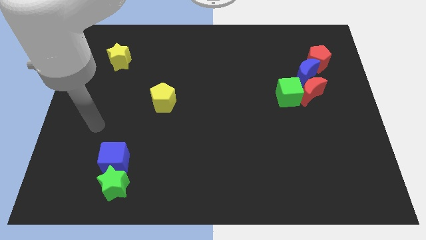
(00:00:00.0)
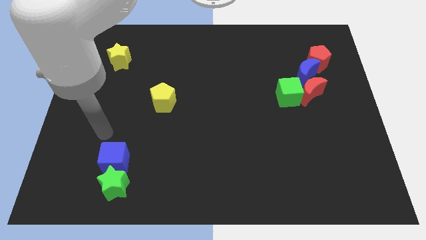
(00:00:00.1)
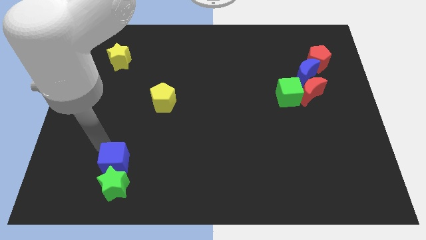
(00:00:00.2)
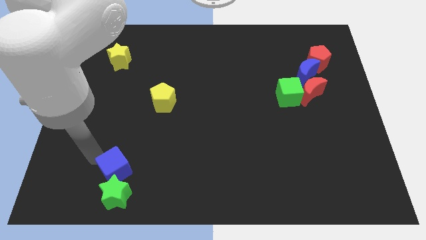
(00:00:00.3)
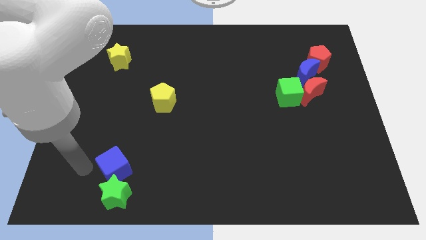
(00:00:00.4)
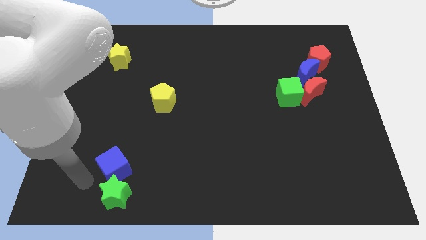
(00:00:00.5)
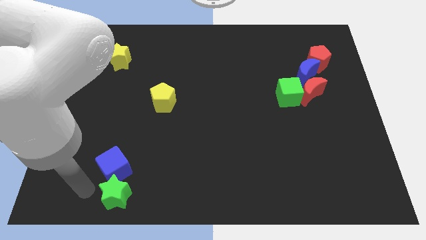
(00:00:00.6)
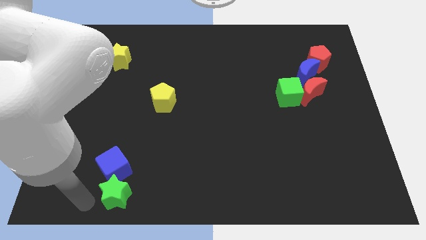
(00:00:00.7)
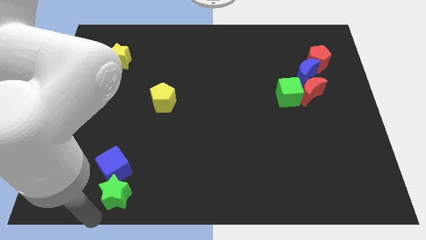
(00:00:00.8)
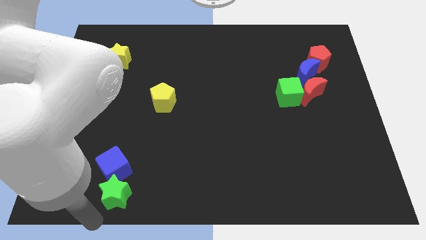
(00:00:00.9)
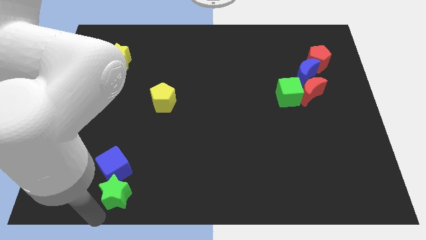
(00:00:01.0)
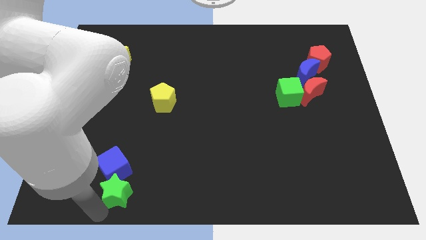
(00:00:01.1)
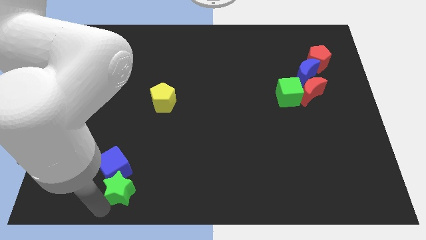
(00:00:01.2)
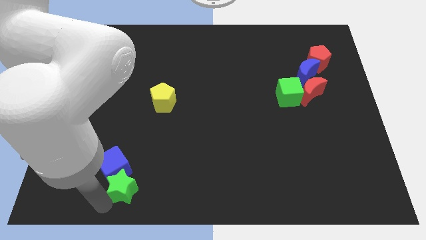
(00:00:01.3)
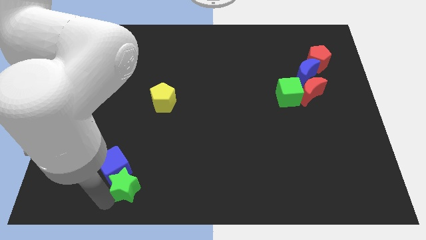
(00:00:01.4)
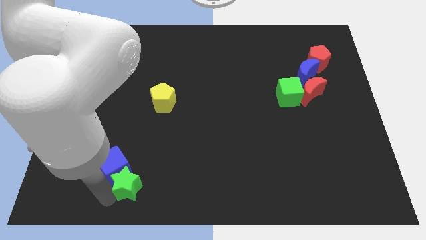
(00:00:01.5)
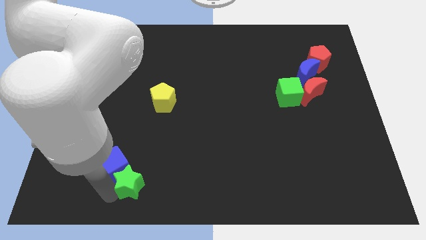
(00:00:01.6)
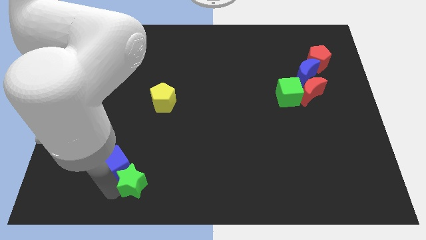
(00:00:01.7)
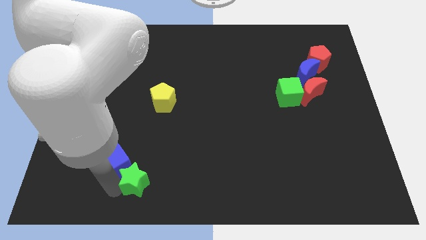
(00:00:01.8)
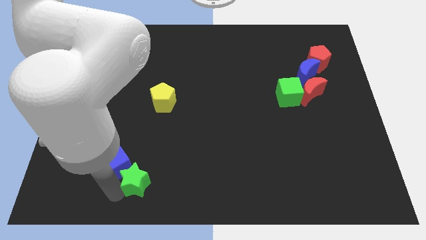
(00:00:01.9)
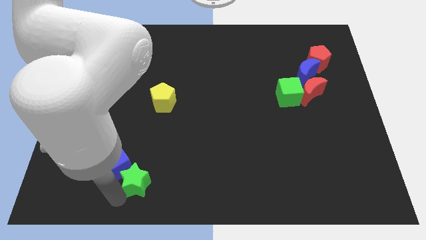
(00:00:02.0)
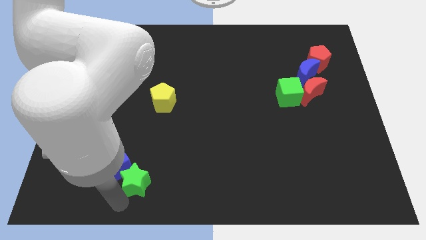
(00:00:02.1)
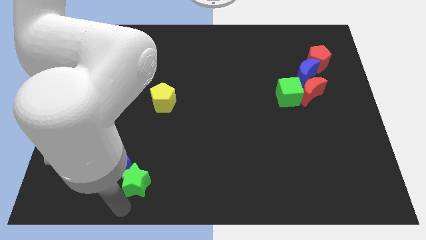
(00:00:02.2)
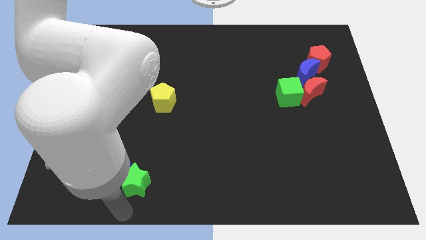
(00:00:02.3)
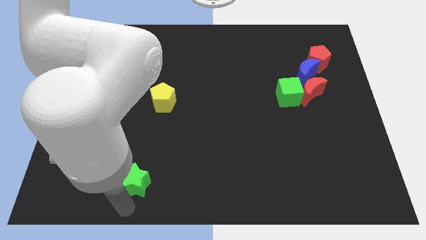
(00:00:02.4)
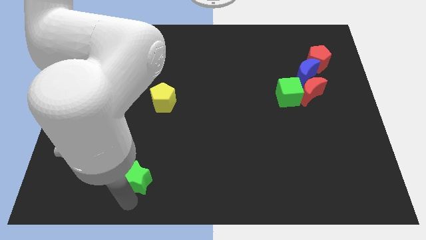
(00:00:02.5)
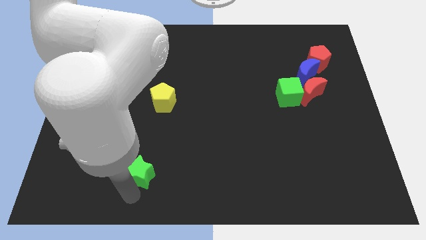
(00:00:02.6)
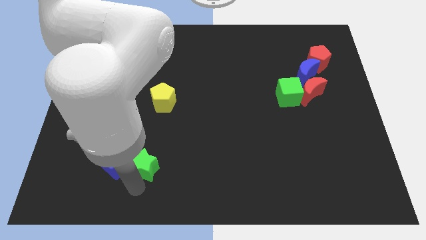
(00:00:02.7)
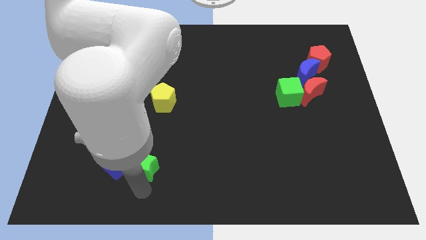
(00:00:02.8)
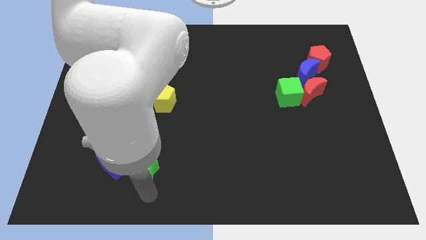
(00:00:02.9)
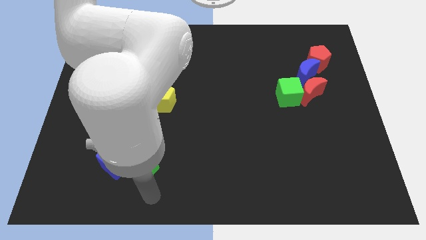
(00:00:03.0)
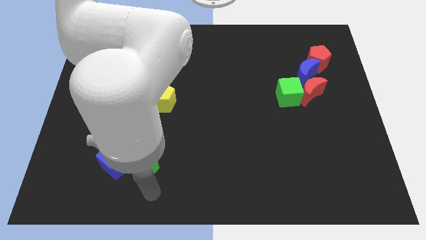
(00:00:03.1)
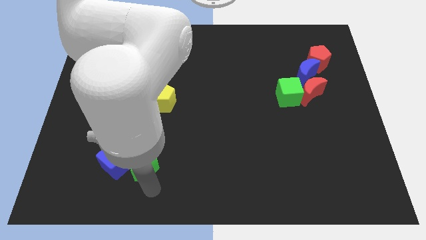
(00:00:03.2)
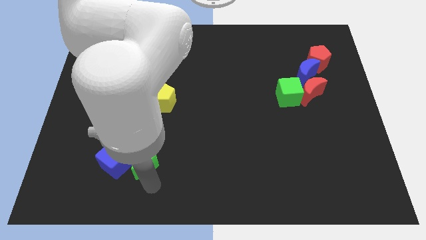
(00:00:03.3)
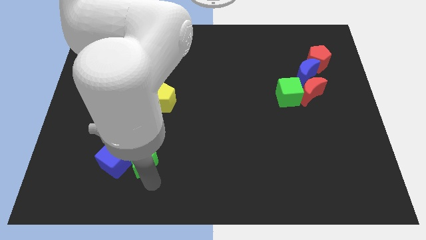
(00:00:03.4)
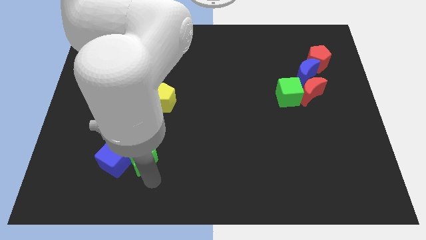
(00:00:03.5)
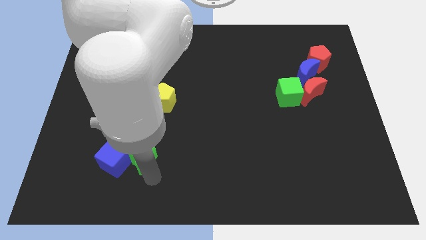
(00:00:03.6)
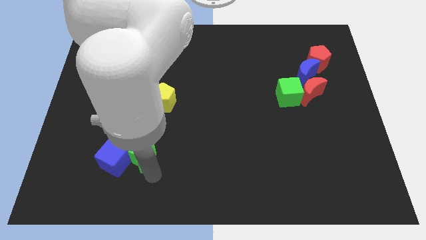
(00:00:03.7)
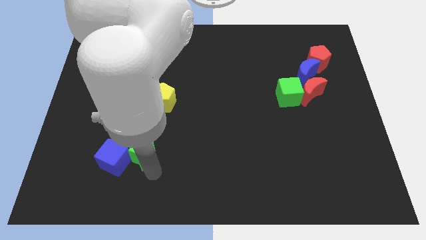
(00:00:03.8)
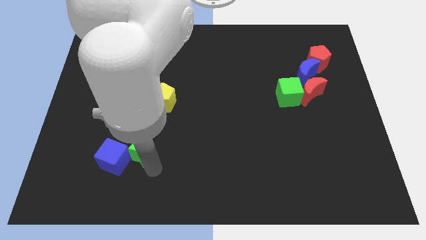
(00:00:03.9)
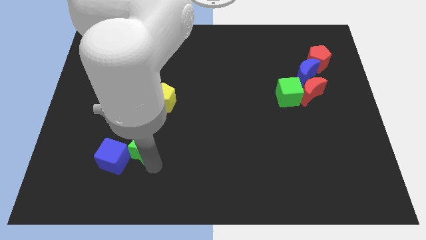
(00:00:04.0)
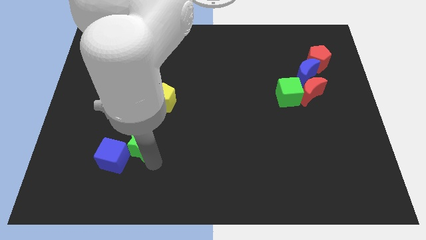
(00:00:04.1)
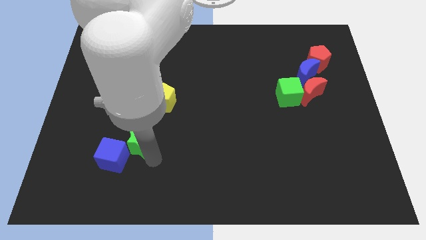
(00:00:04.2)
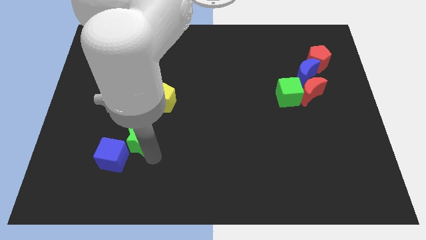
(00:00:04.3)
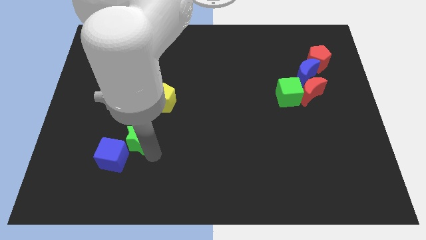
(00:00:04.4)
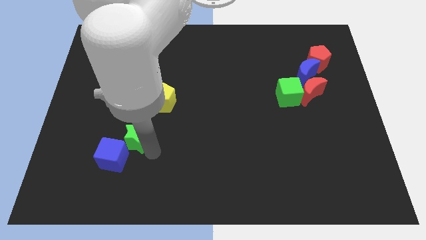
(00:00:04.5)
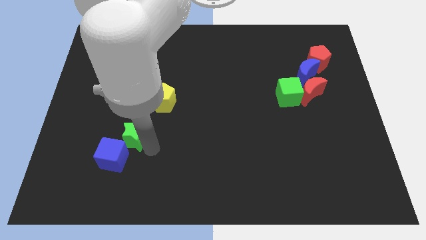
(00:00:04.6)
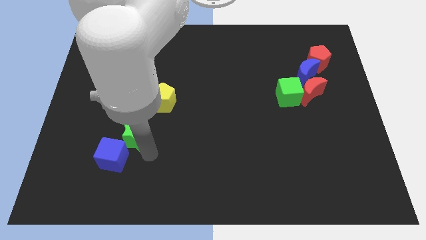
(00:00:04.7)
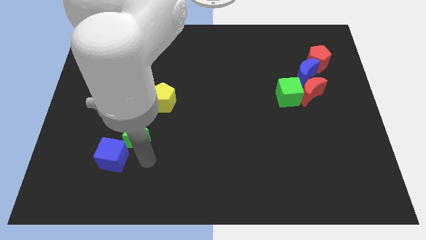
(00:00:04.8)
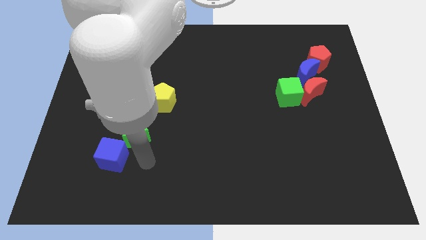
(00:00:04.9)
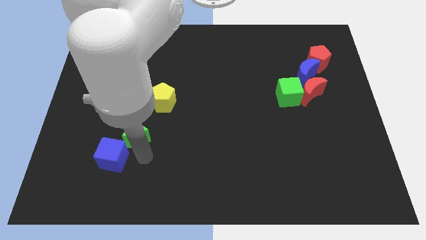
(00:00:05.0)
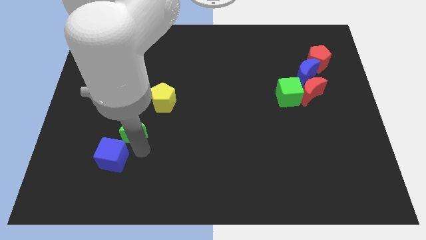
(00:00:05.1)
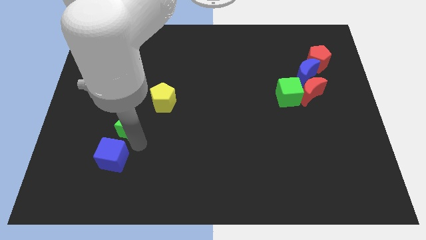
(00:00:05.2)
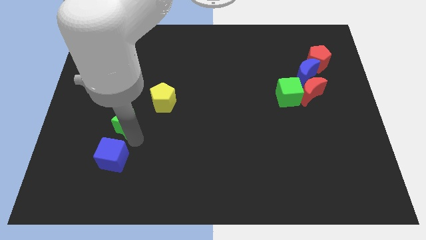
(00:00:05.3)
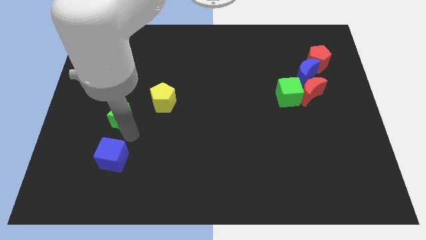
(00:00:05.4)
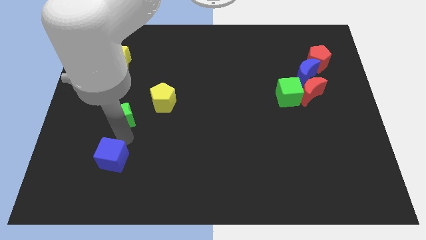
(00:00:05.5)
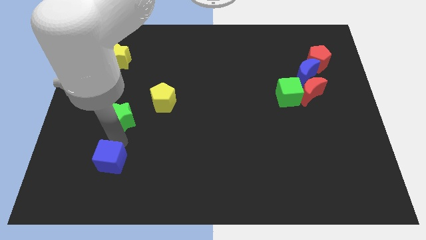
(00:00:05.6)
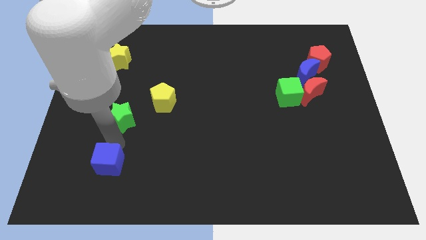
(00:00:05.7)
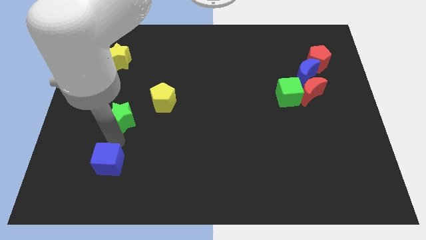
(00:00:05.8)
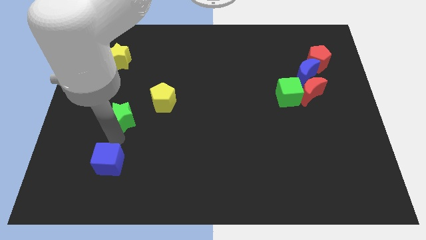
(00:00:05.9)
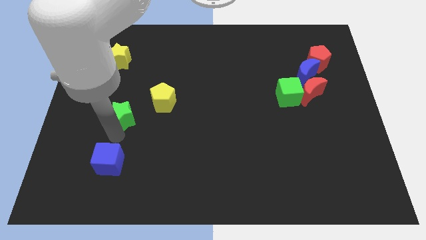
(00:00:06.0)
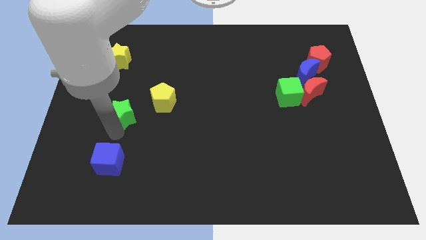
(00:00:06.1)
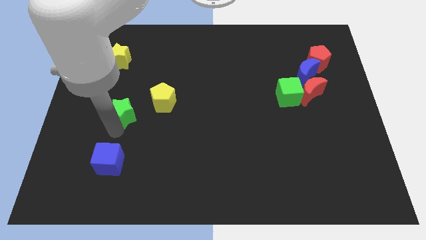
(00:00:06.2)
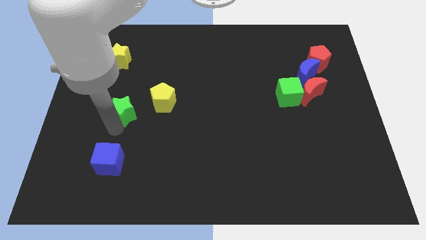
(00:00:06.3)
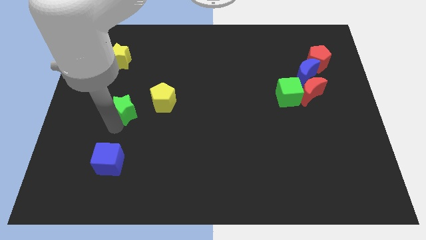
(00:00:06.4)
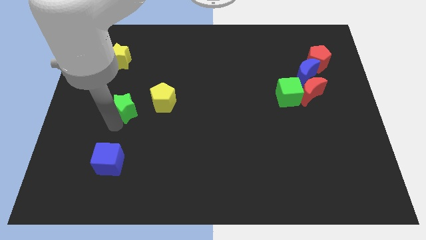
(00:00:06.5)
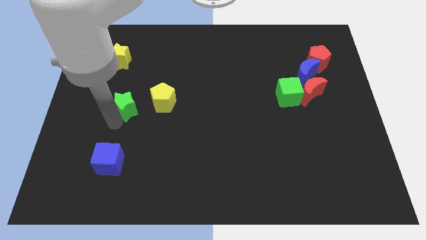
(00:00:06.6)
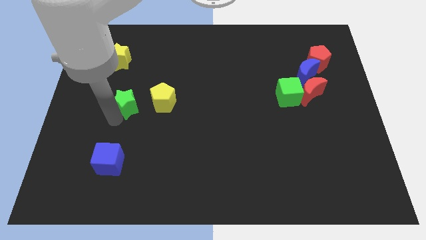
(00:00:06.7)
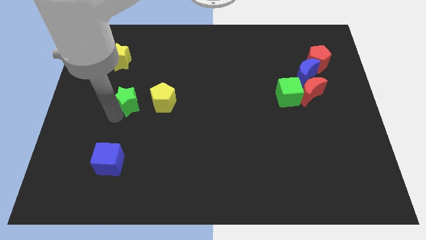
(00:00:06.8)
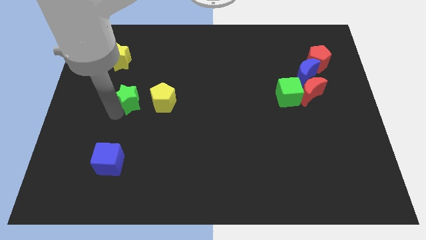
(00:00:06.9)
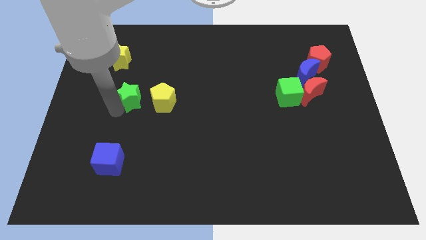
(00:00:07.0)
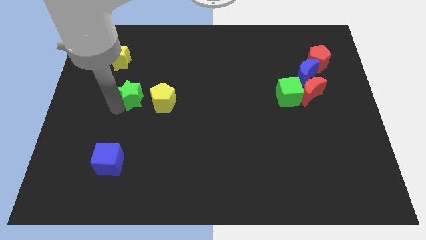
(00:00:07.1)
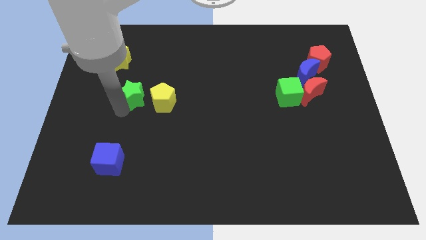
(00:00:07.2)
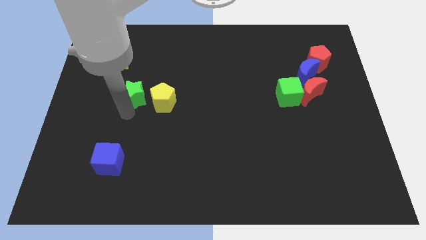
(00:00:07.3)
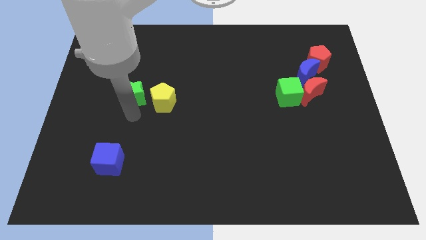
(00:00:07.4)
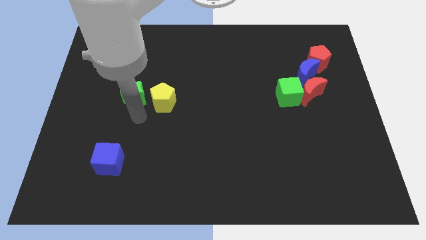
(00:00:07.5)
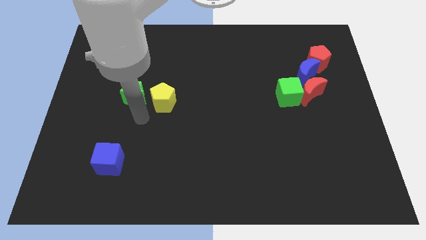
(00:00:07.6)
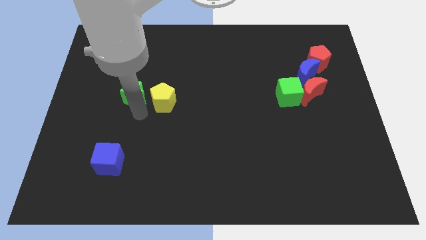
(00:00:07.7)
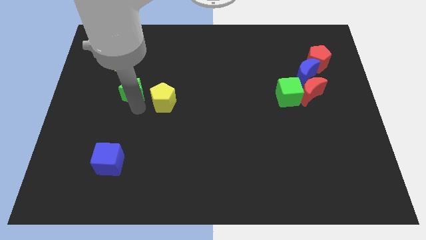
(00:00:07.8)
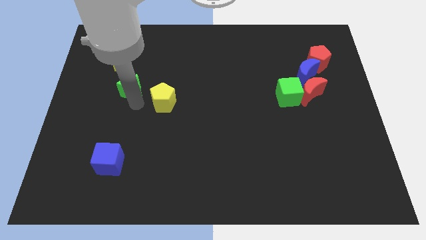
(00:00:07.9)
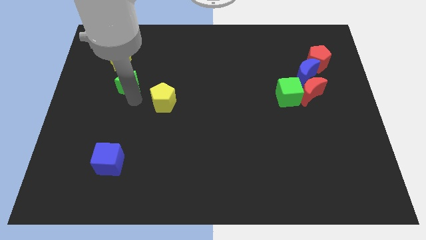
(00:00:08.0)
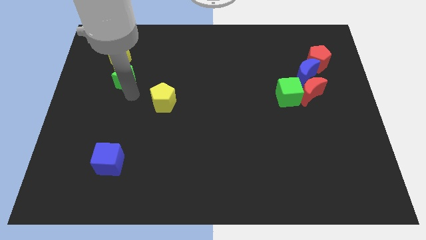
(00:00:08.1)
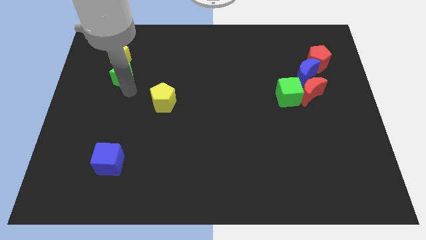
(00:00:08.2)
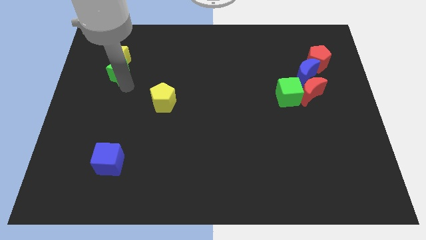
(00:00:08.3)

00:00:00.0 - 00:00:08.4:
push the green star close to the yellow star
